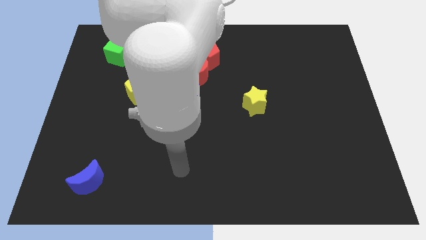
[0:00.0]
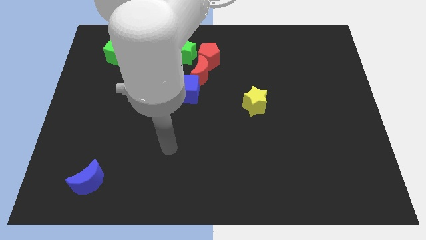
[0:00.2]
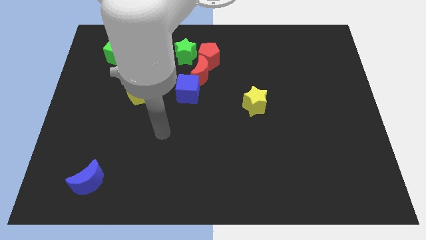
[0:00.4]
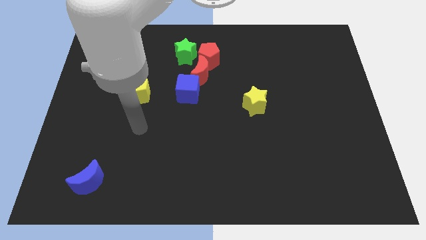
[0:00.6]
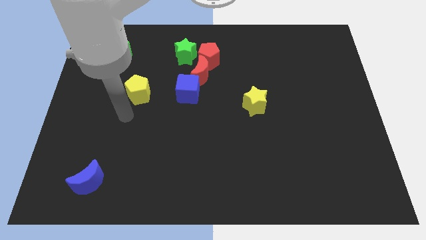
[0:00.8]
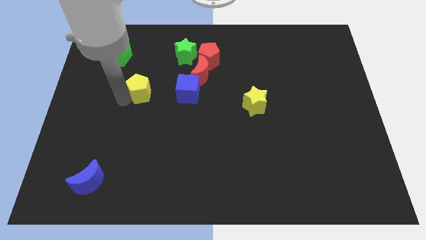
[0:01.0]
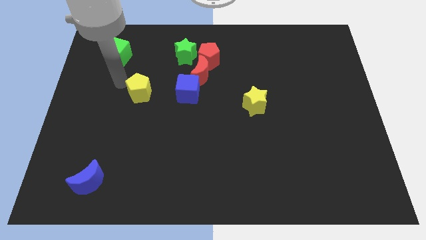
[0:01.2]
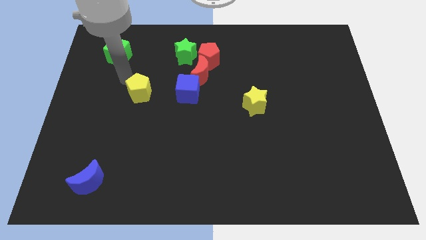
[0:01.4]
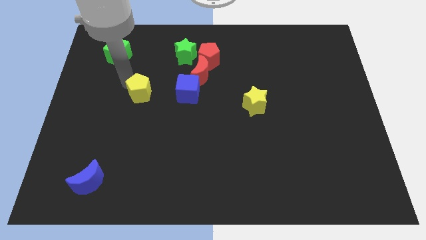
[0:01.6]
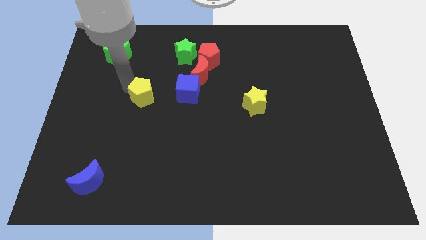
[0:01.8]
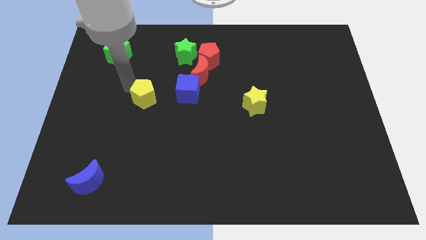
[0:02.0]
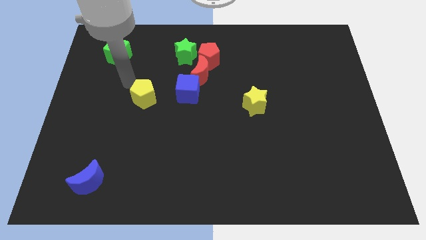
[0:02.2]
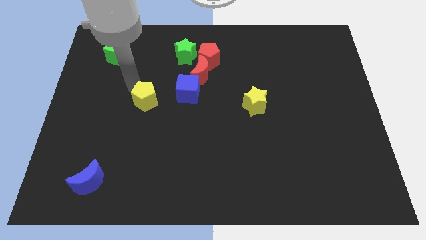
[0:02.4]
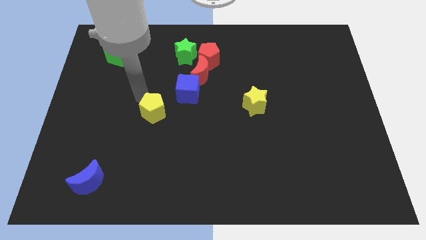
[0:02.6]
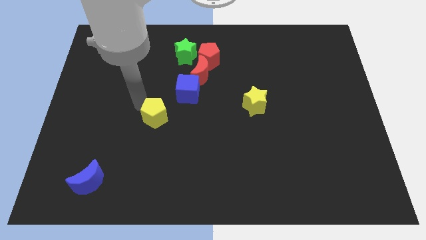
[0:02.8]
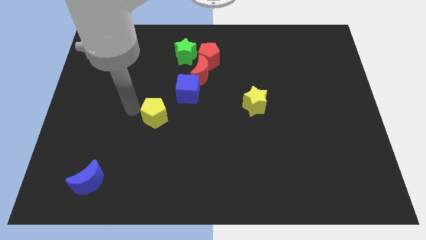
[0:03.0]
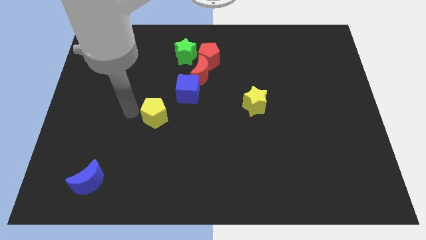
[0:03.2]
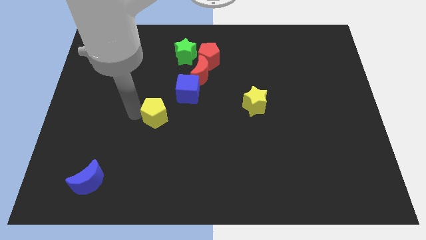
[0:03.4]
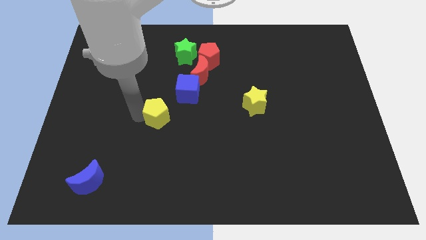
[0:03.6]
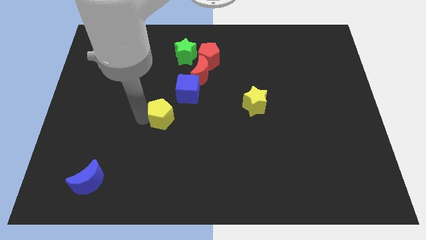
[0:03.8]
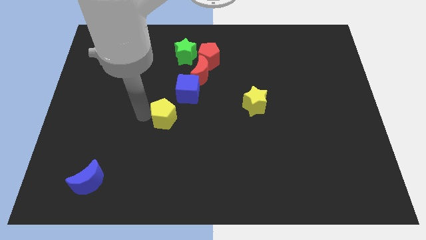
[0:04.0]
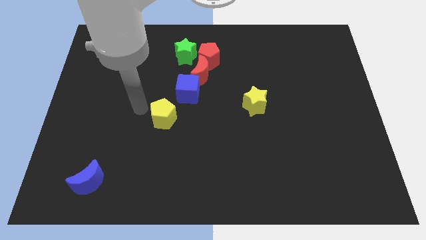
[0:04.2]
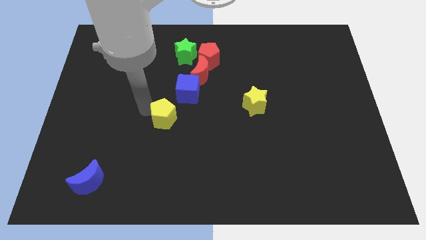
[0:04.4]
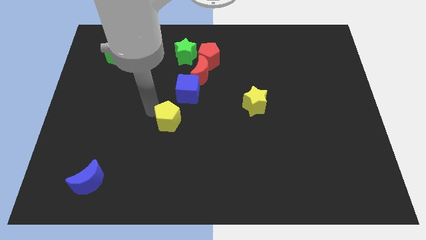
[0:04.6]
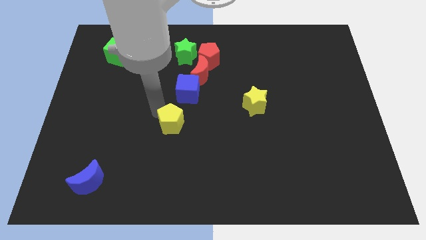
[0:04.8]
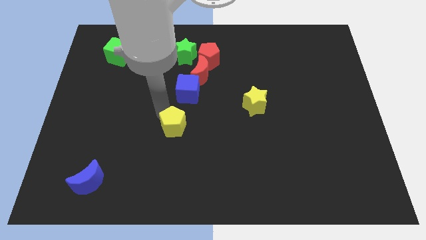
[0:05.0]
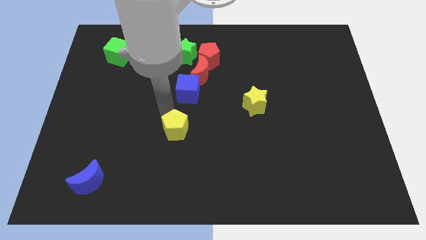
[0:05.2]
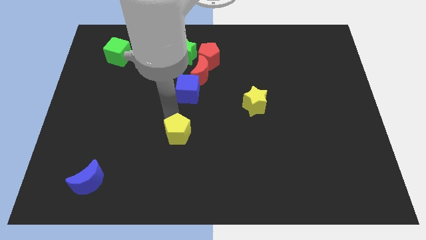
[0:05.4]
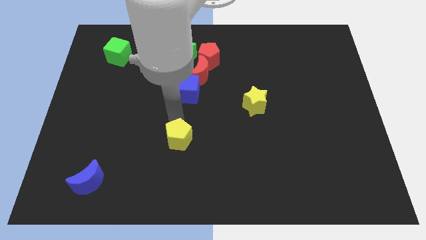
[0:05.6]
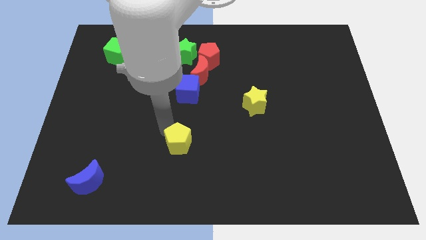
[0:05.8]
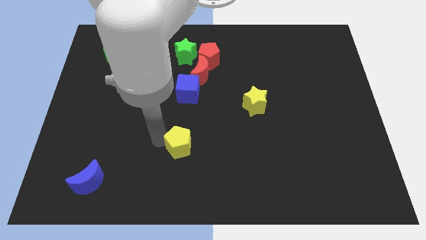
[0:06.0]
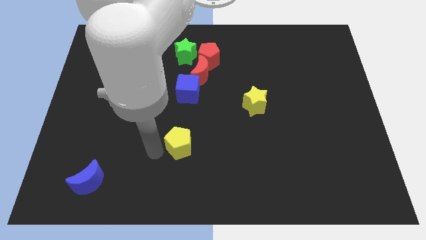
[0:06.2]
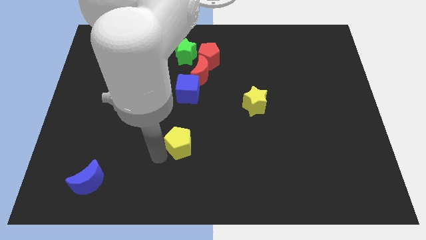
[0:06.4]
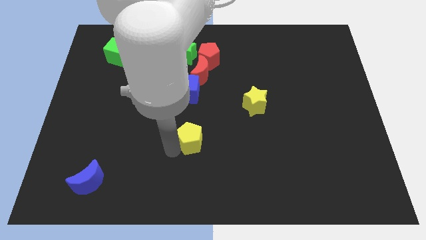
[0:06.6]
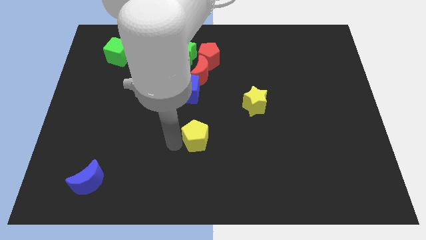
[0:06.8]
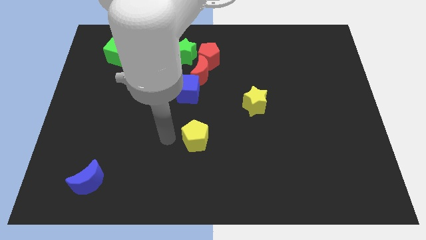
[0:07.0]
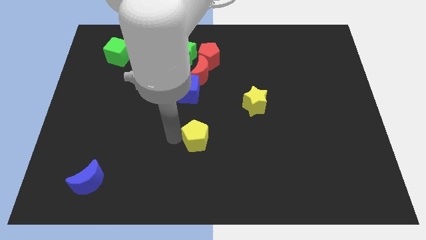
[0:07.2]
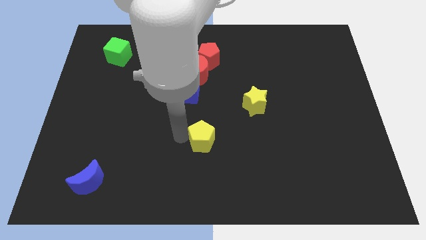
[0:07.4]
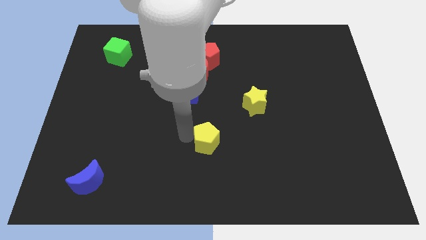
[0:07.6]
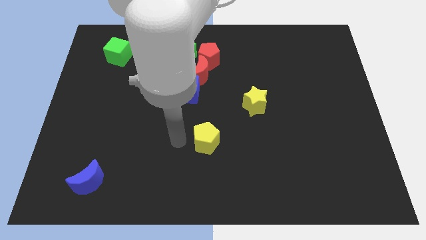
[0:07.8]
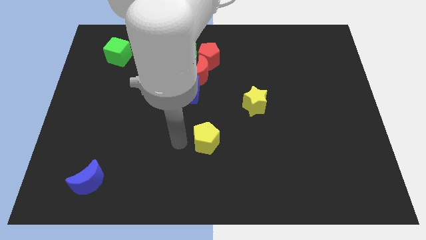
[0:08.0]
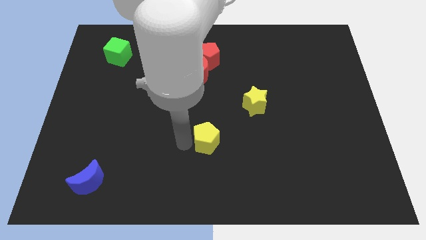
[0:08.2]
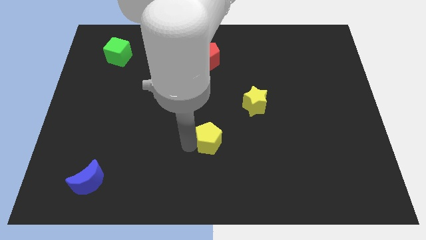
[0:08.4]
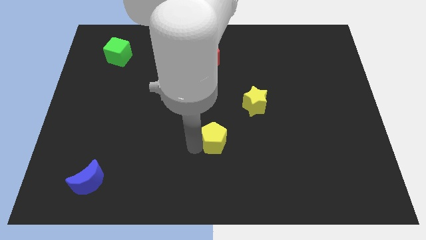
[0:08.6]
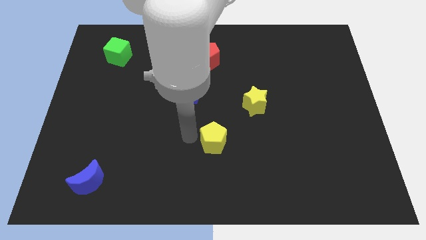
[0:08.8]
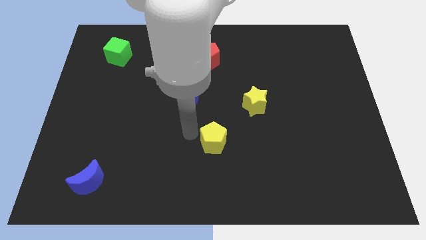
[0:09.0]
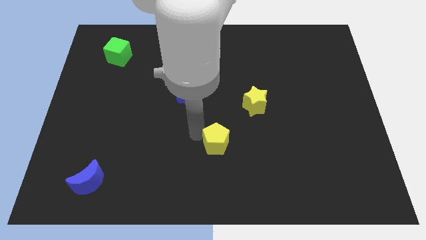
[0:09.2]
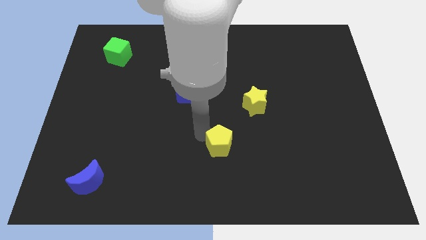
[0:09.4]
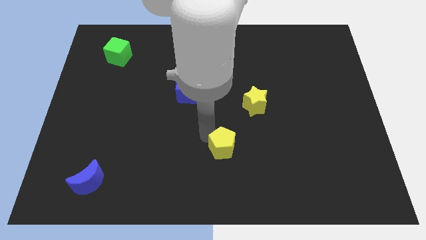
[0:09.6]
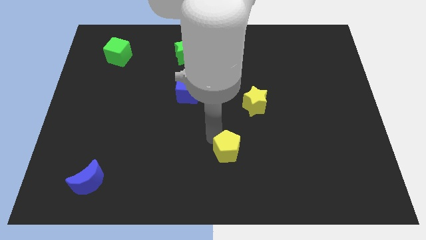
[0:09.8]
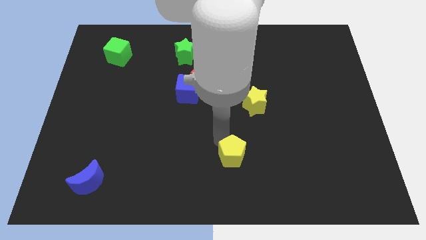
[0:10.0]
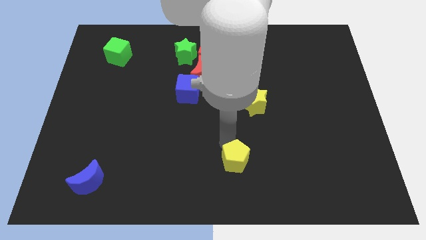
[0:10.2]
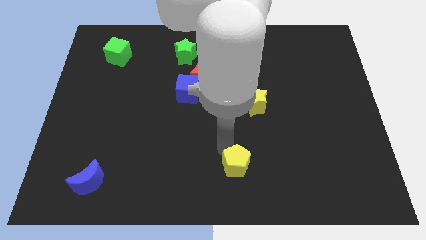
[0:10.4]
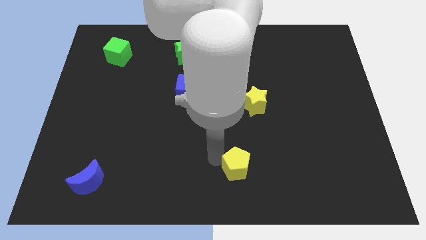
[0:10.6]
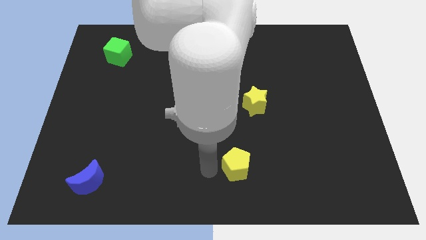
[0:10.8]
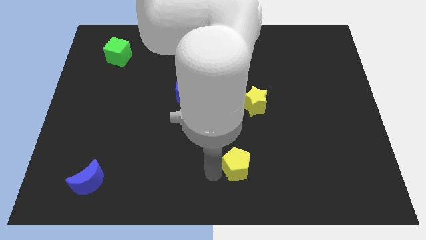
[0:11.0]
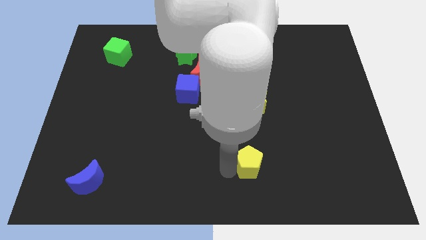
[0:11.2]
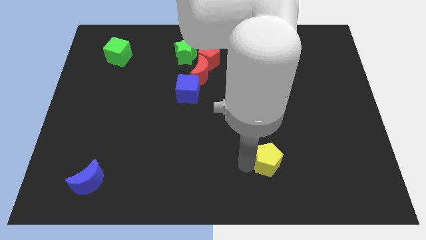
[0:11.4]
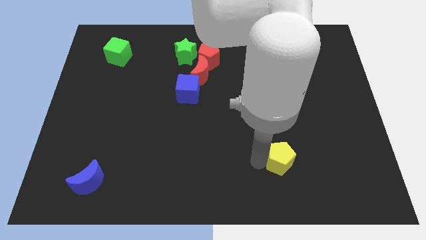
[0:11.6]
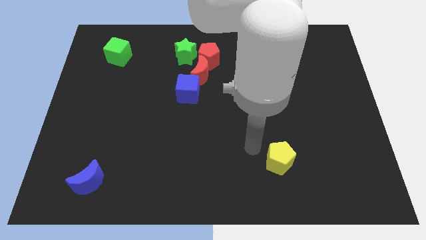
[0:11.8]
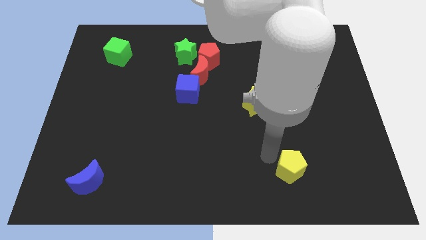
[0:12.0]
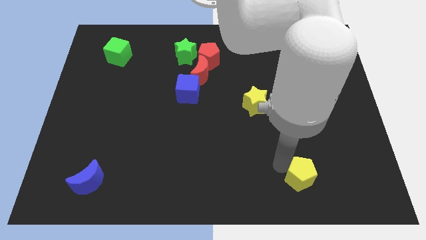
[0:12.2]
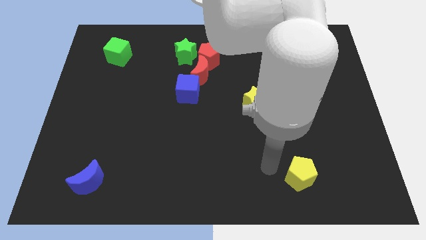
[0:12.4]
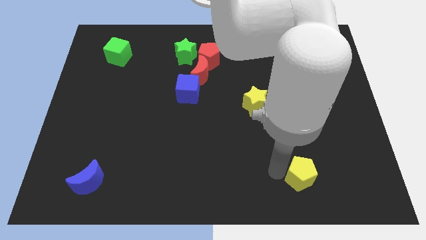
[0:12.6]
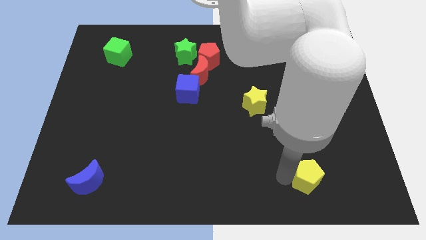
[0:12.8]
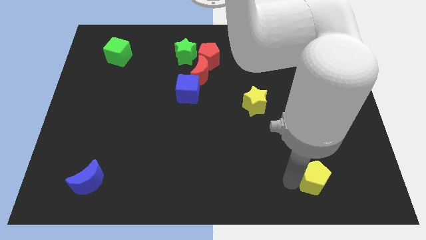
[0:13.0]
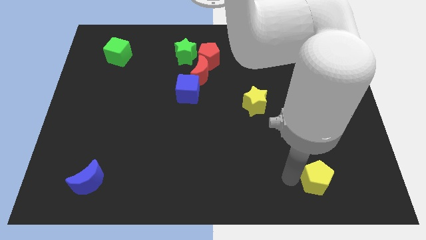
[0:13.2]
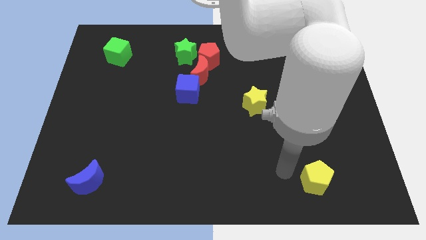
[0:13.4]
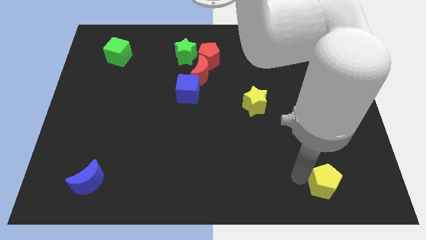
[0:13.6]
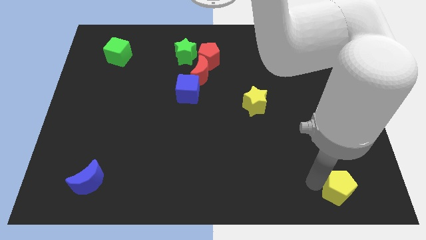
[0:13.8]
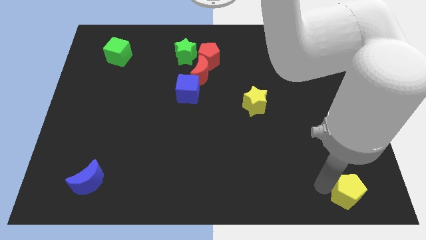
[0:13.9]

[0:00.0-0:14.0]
push the yellow pentagon to the bottom right corner
